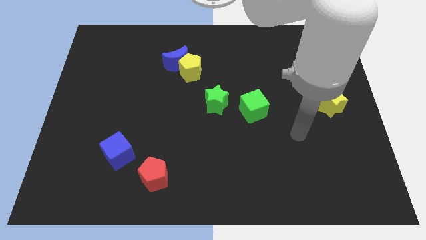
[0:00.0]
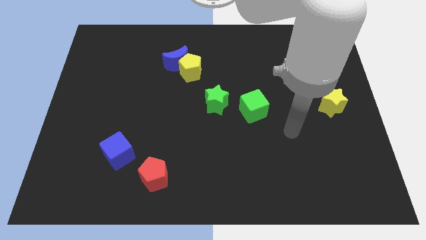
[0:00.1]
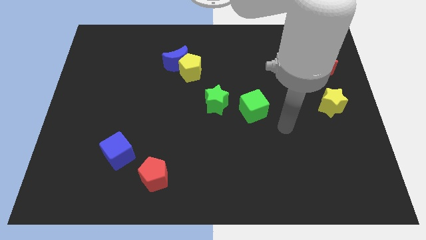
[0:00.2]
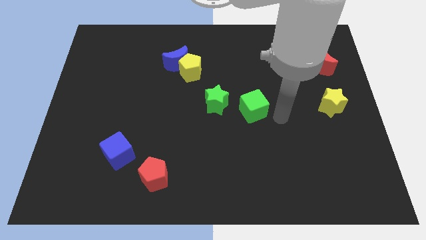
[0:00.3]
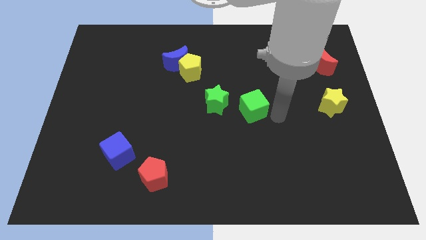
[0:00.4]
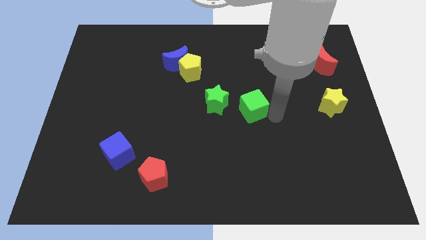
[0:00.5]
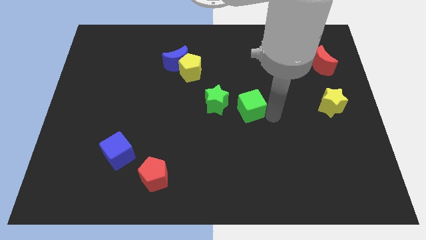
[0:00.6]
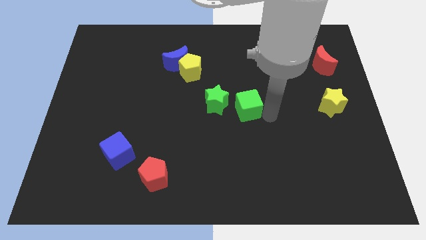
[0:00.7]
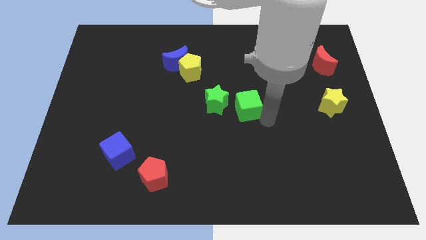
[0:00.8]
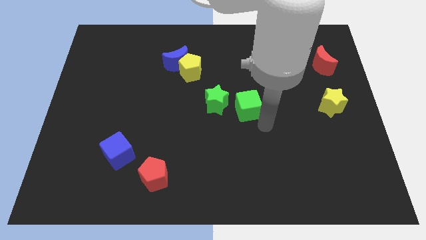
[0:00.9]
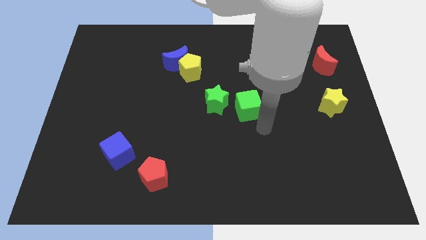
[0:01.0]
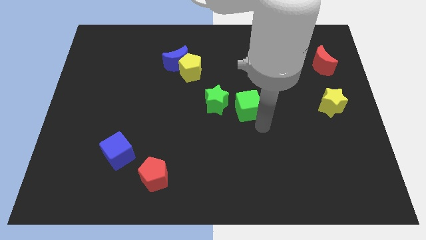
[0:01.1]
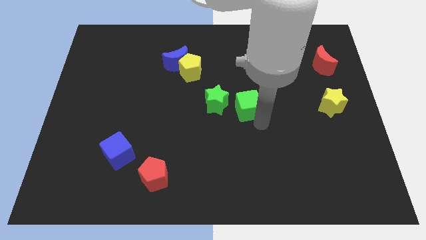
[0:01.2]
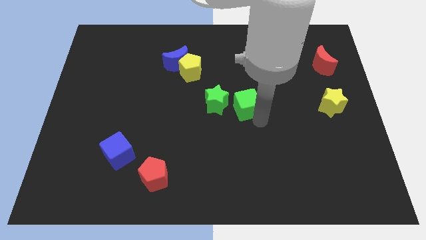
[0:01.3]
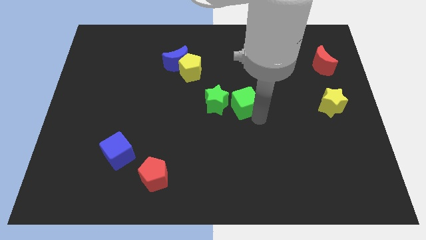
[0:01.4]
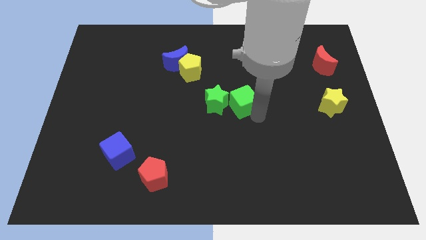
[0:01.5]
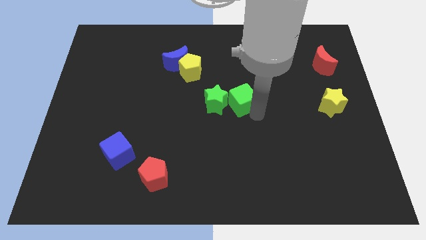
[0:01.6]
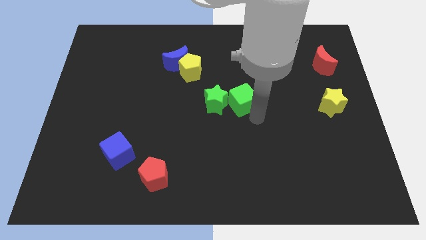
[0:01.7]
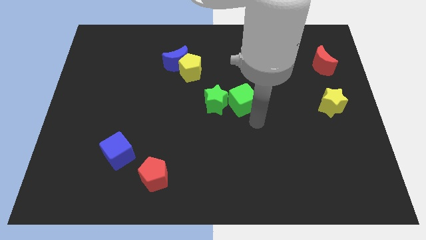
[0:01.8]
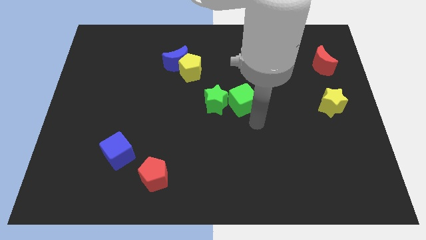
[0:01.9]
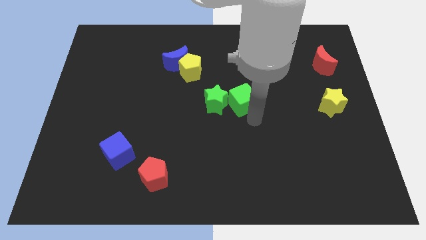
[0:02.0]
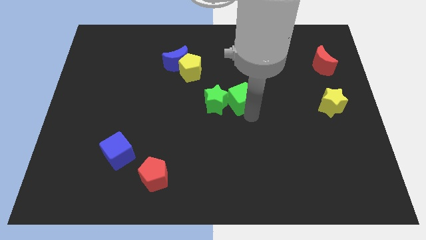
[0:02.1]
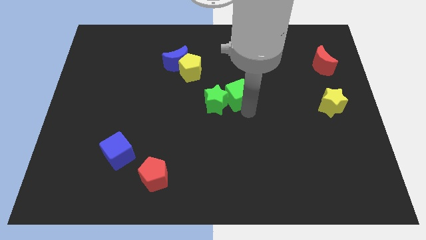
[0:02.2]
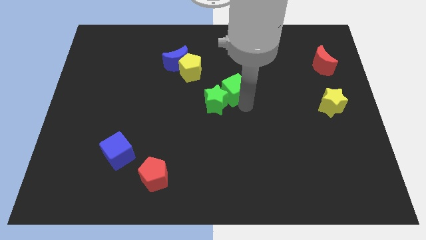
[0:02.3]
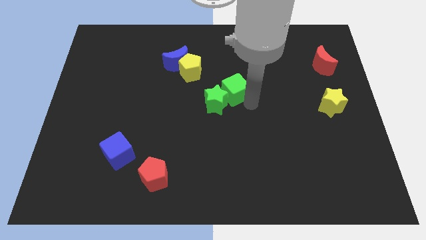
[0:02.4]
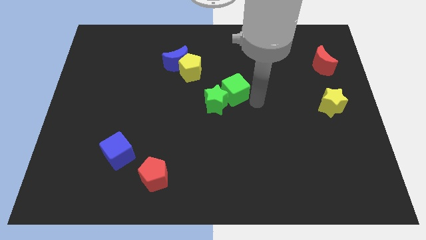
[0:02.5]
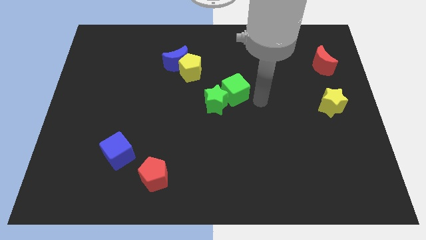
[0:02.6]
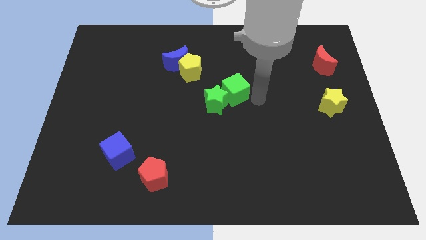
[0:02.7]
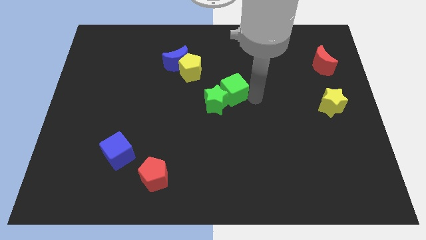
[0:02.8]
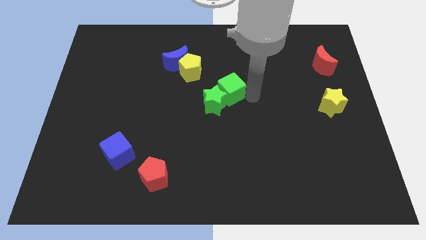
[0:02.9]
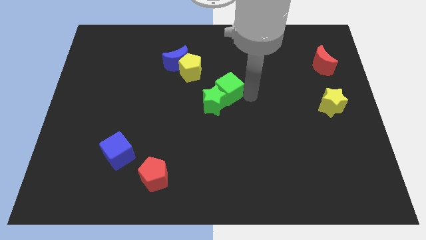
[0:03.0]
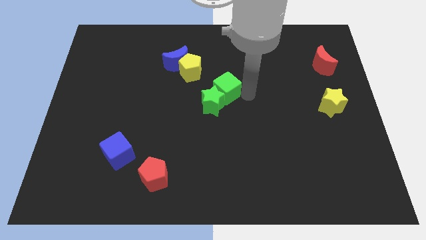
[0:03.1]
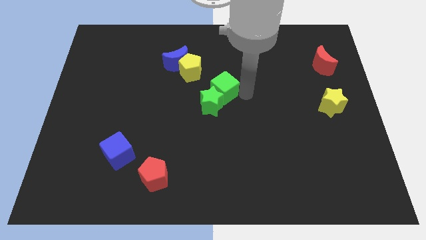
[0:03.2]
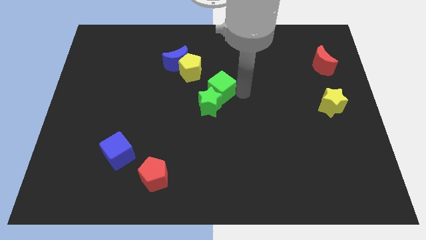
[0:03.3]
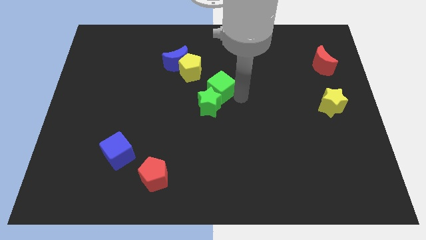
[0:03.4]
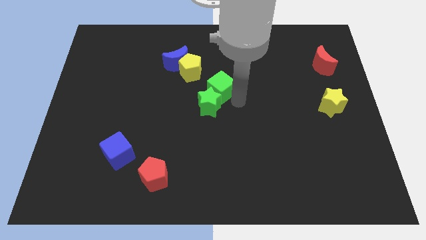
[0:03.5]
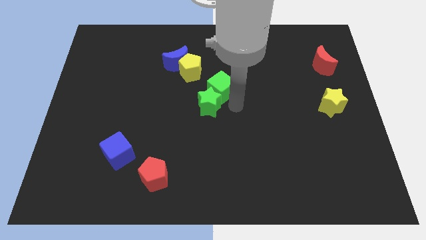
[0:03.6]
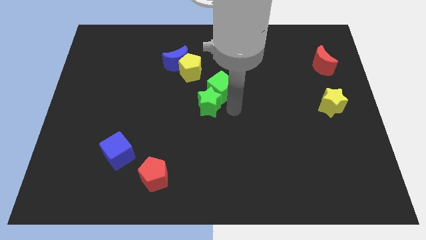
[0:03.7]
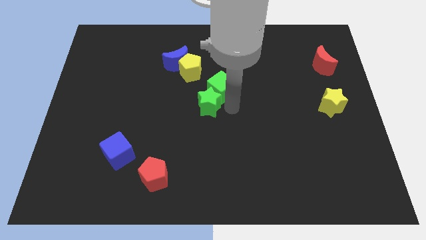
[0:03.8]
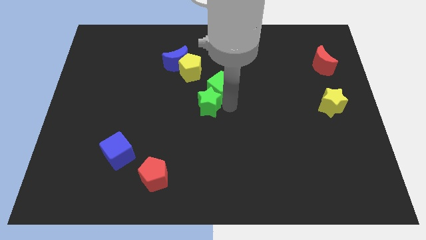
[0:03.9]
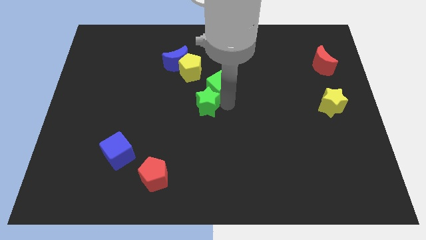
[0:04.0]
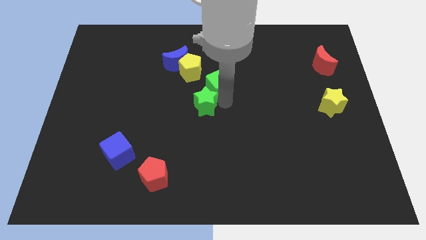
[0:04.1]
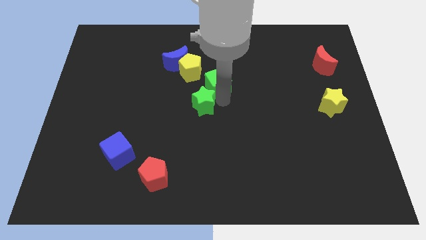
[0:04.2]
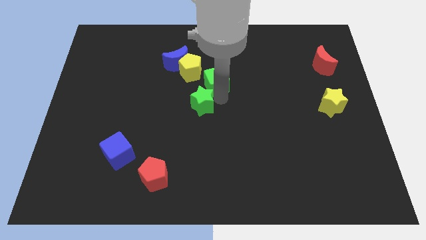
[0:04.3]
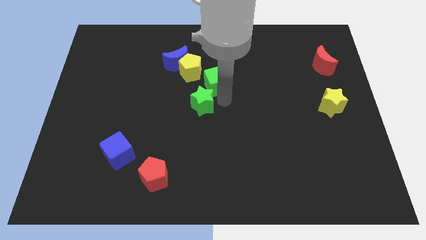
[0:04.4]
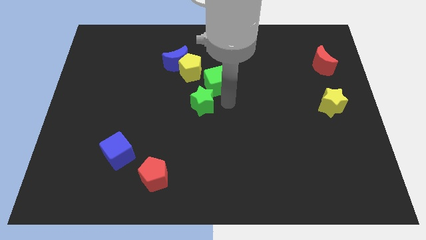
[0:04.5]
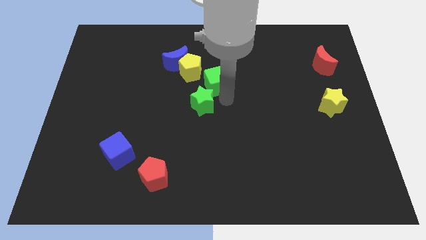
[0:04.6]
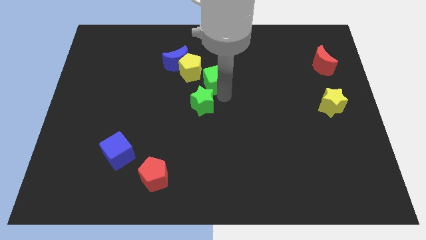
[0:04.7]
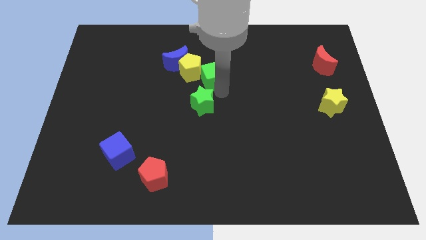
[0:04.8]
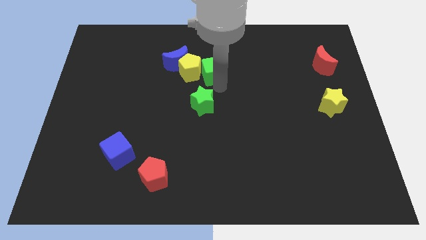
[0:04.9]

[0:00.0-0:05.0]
slide the green cube to the yellow pentagon

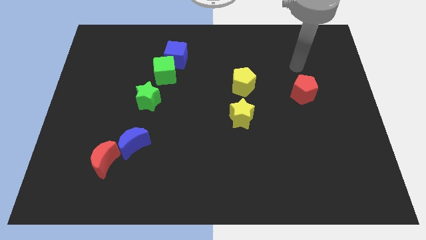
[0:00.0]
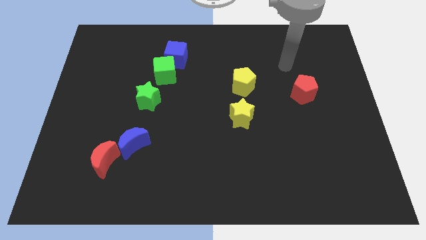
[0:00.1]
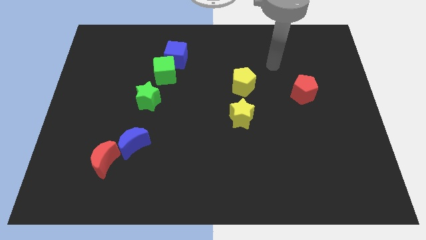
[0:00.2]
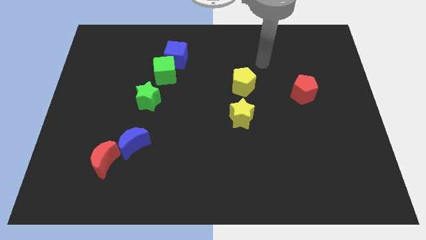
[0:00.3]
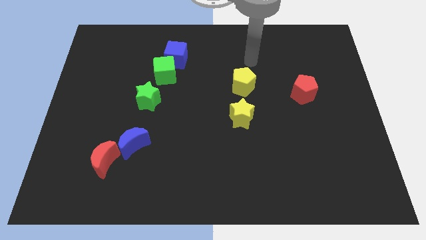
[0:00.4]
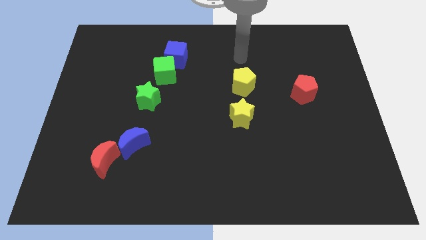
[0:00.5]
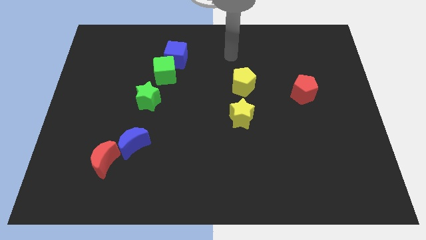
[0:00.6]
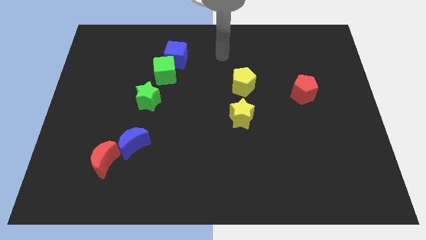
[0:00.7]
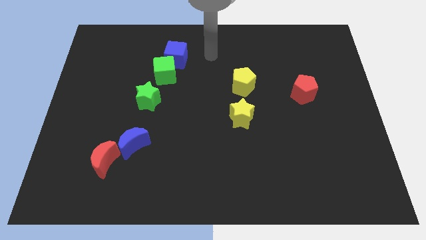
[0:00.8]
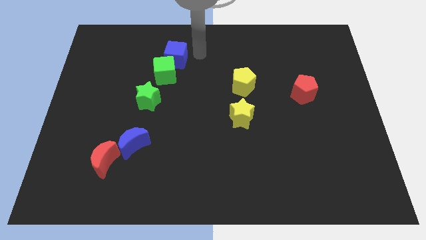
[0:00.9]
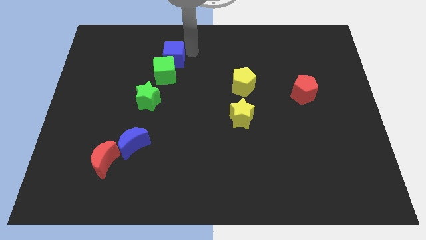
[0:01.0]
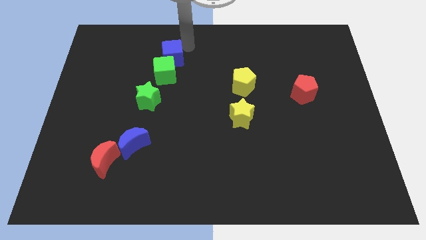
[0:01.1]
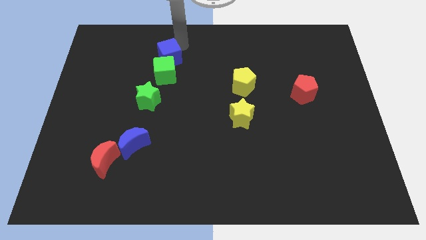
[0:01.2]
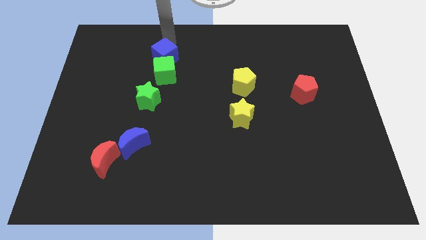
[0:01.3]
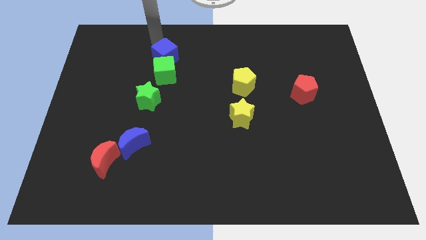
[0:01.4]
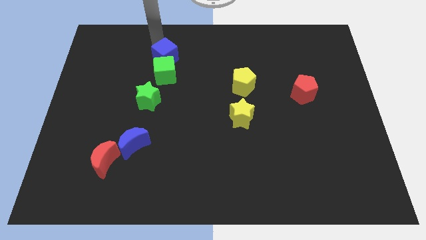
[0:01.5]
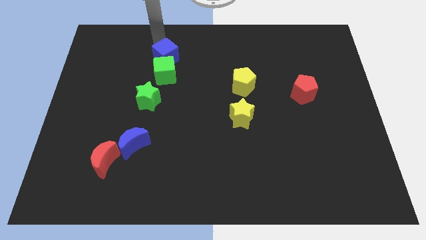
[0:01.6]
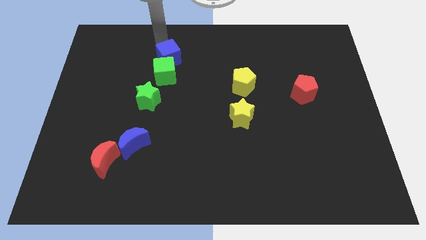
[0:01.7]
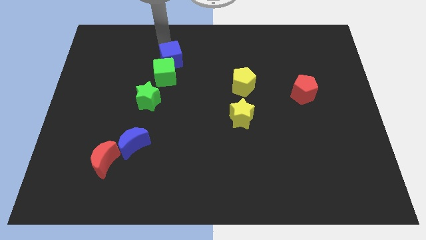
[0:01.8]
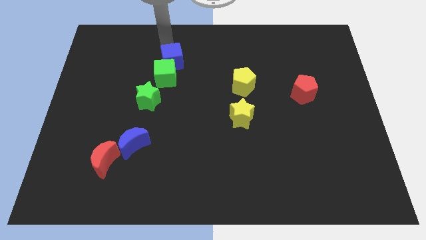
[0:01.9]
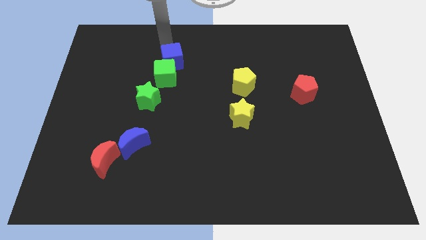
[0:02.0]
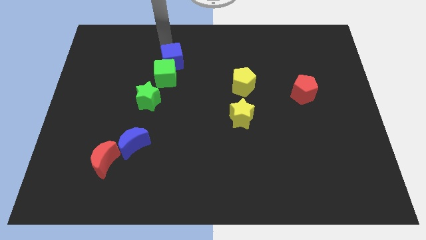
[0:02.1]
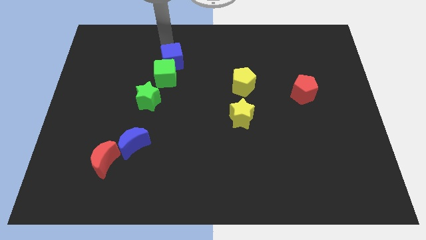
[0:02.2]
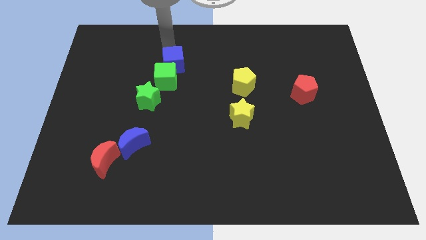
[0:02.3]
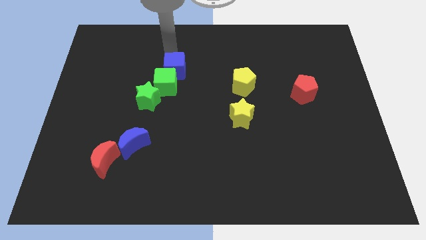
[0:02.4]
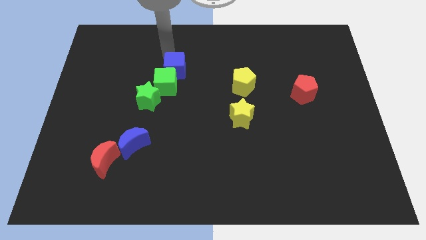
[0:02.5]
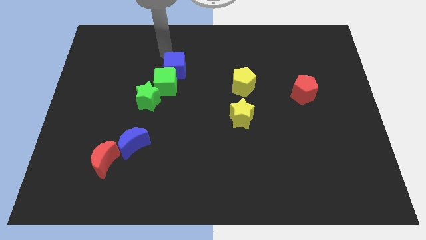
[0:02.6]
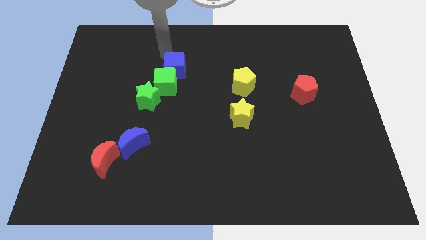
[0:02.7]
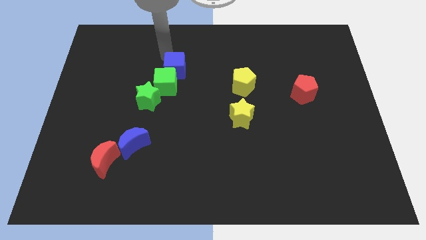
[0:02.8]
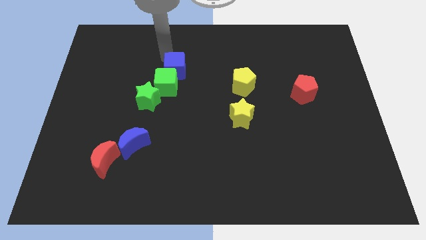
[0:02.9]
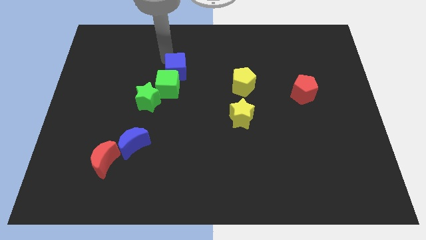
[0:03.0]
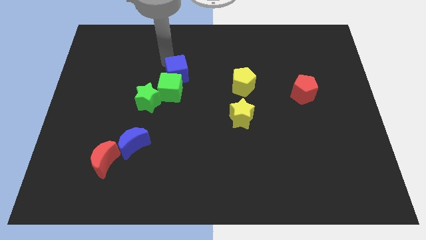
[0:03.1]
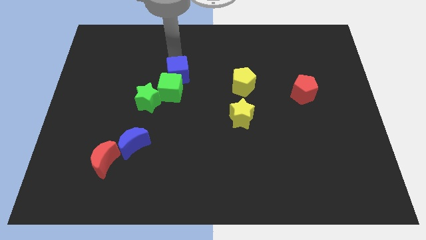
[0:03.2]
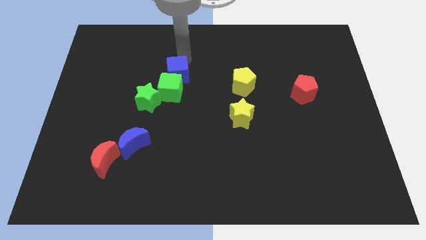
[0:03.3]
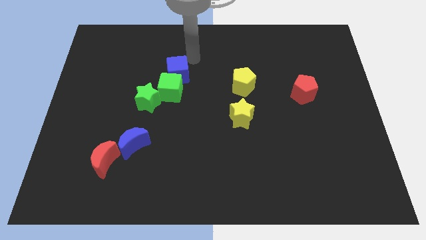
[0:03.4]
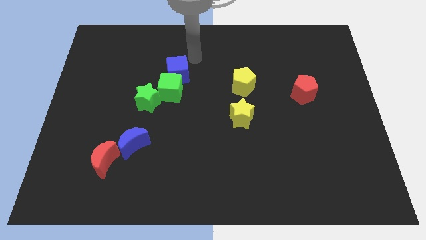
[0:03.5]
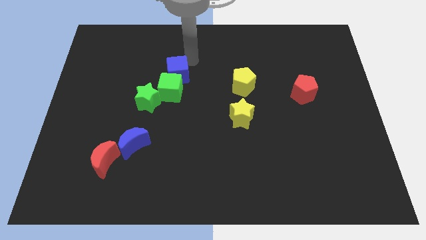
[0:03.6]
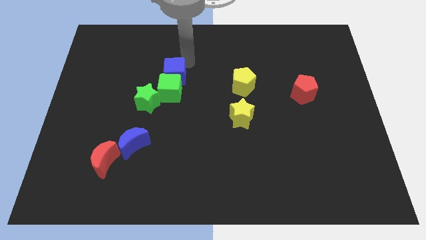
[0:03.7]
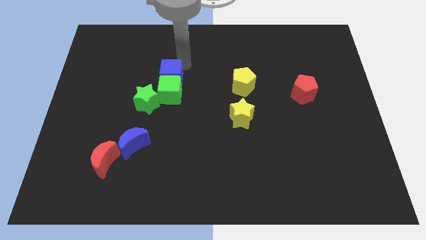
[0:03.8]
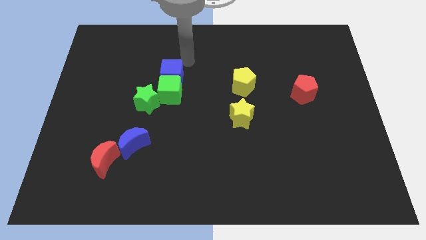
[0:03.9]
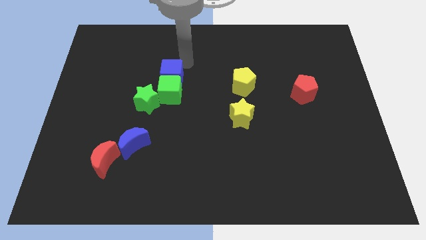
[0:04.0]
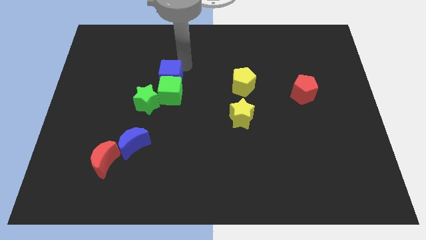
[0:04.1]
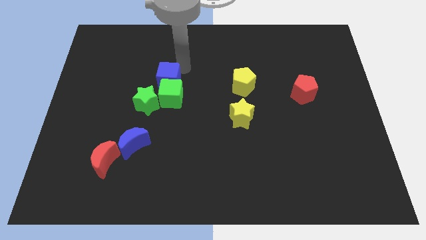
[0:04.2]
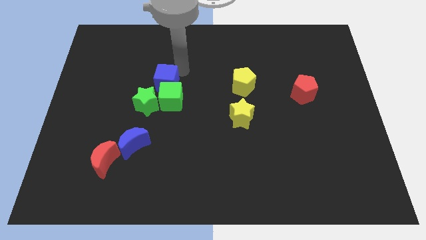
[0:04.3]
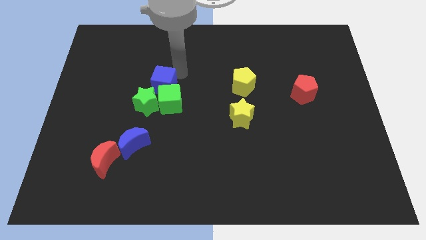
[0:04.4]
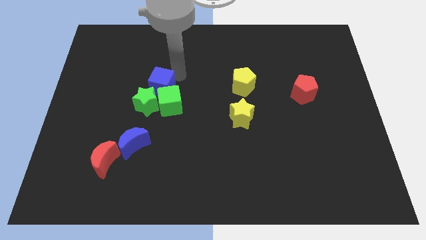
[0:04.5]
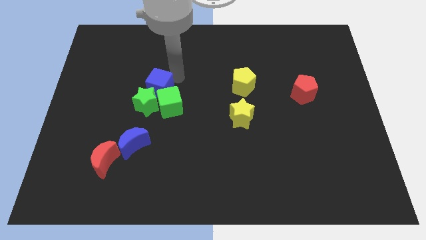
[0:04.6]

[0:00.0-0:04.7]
push the blue cube next to the green star
